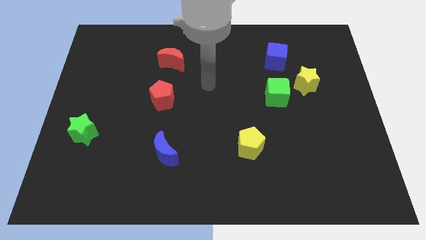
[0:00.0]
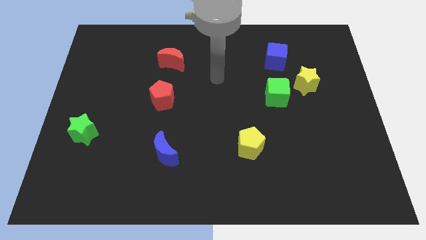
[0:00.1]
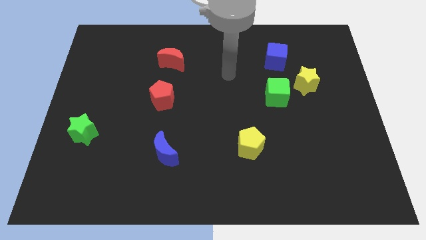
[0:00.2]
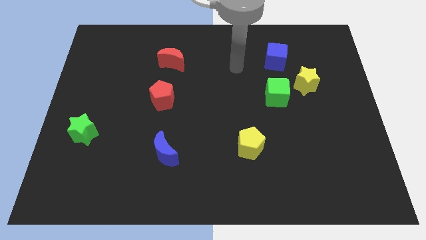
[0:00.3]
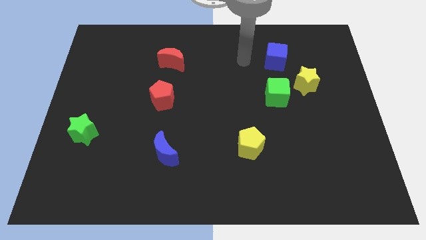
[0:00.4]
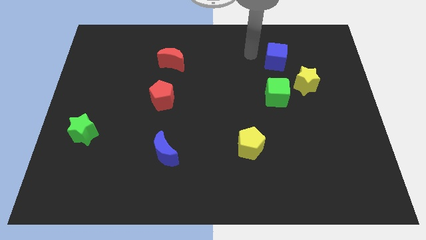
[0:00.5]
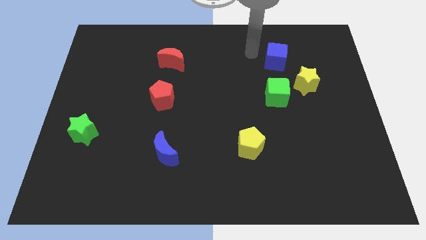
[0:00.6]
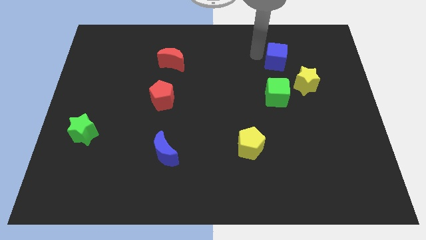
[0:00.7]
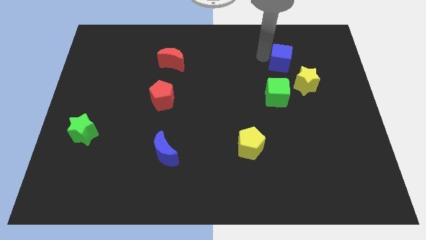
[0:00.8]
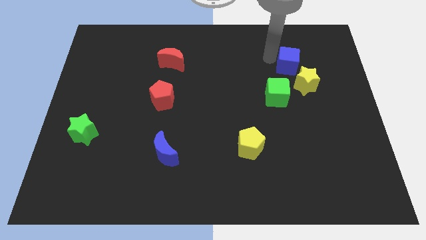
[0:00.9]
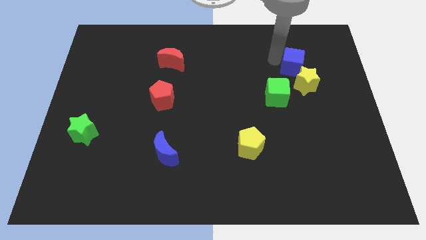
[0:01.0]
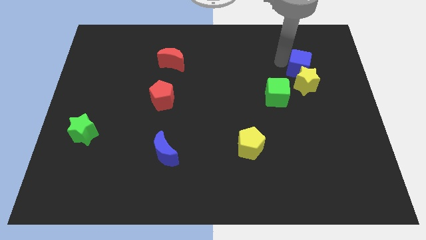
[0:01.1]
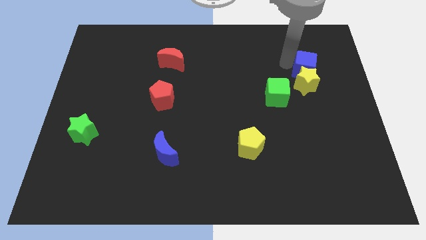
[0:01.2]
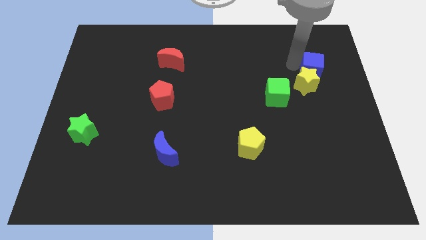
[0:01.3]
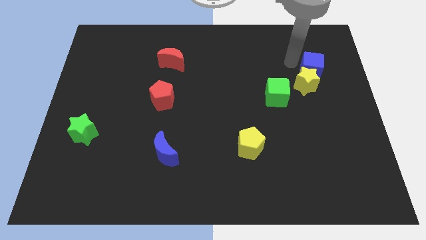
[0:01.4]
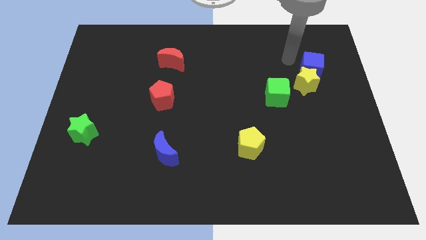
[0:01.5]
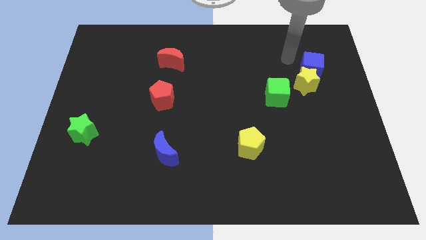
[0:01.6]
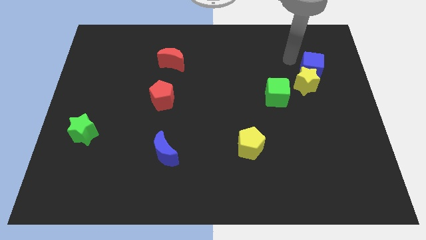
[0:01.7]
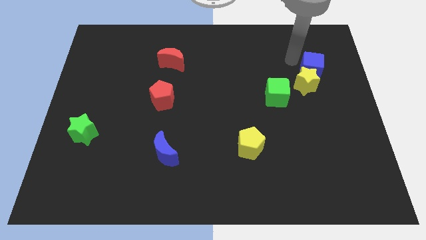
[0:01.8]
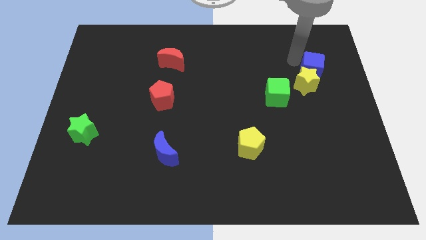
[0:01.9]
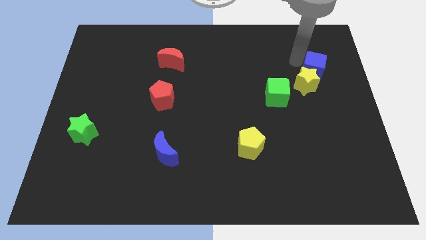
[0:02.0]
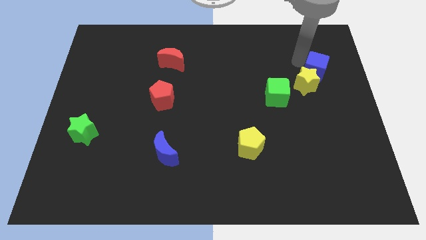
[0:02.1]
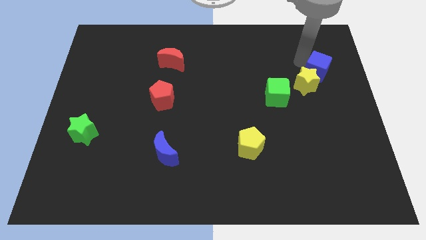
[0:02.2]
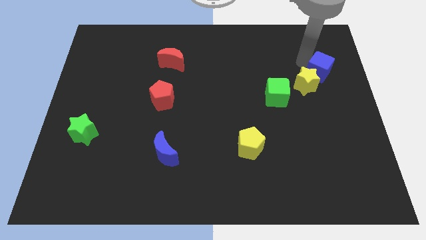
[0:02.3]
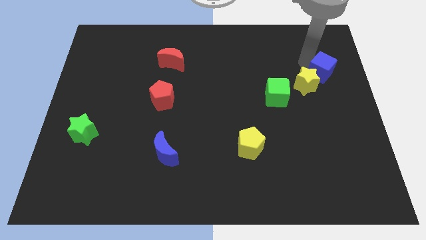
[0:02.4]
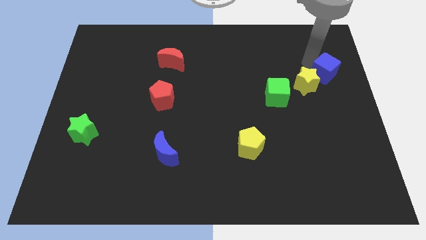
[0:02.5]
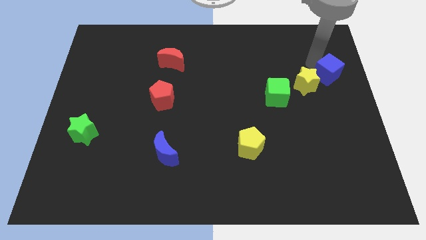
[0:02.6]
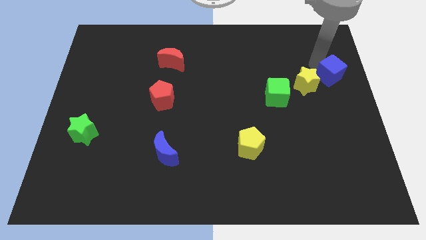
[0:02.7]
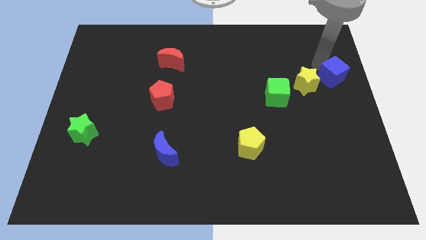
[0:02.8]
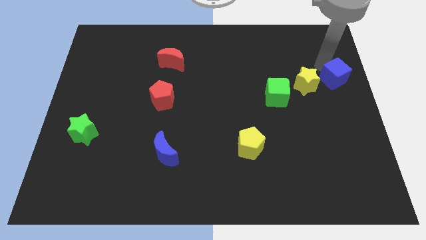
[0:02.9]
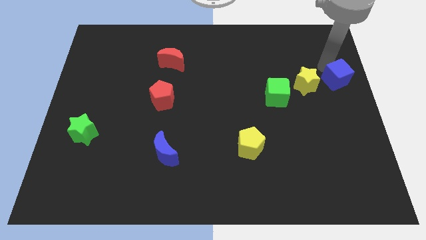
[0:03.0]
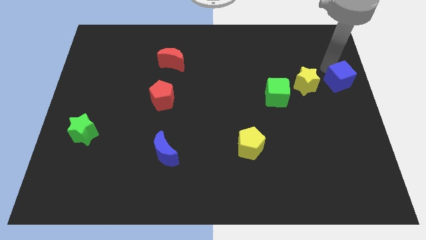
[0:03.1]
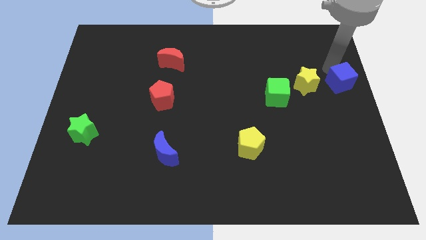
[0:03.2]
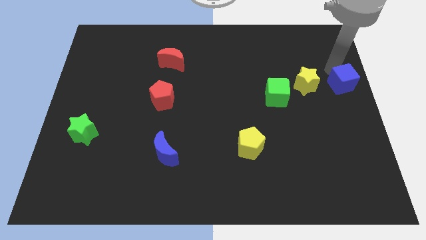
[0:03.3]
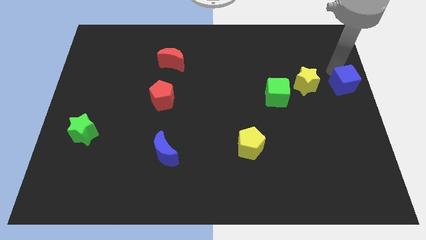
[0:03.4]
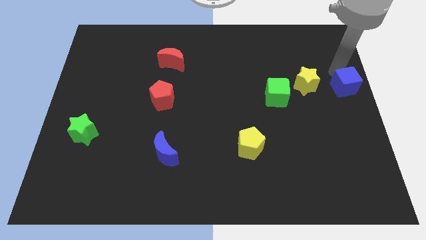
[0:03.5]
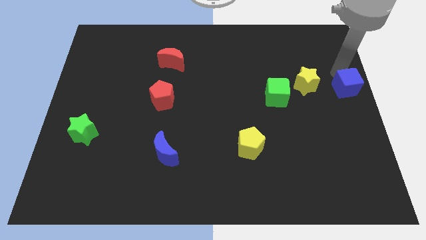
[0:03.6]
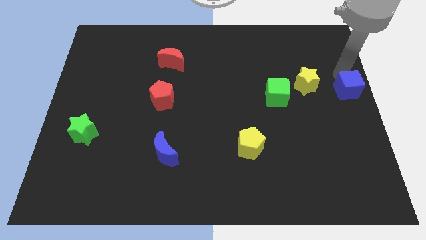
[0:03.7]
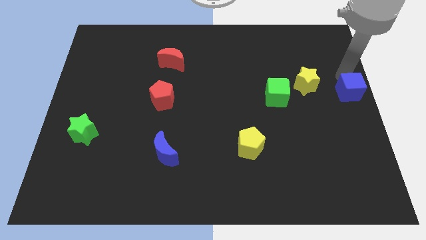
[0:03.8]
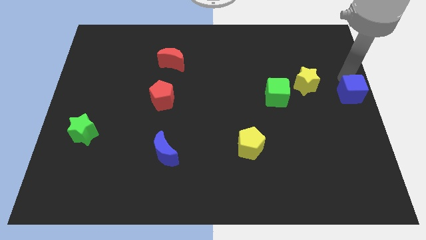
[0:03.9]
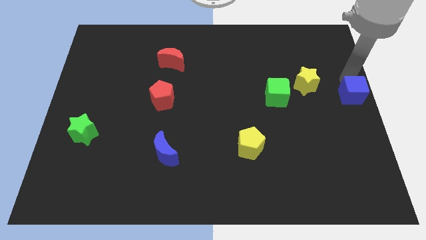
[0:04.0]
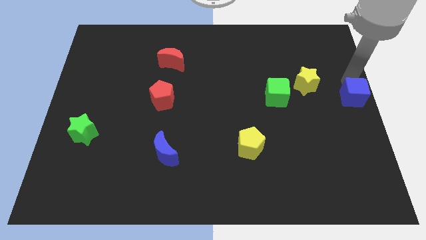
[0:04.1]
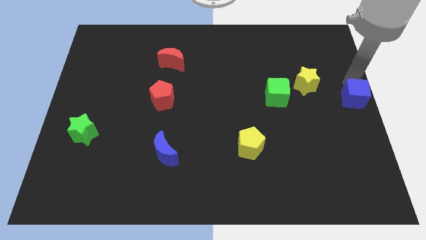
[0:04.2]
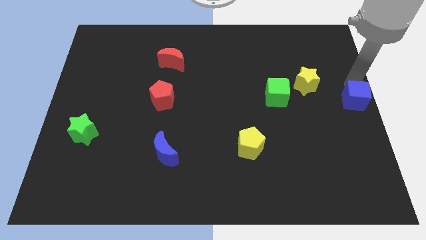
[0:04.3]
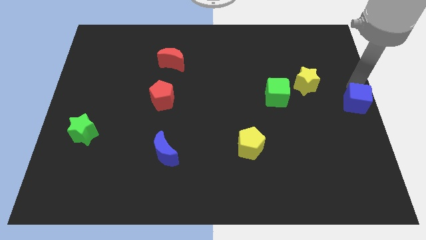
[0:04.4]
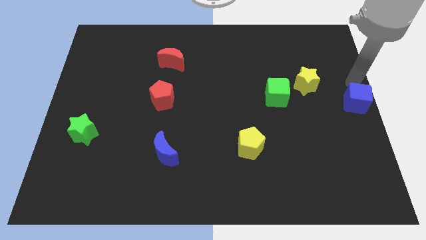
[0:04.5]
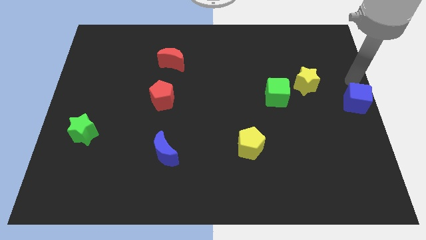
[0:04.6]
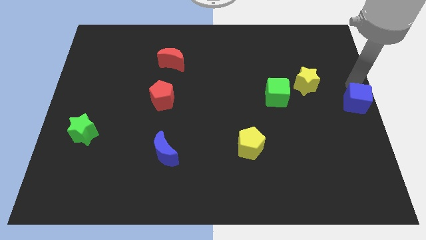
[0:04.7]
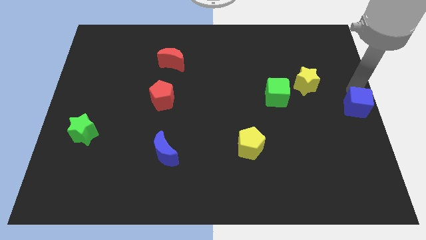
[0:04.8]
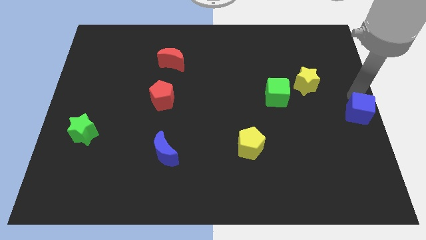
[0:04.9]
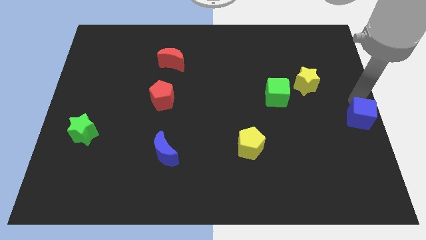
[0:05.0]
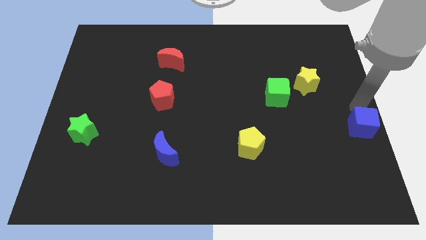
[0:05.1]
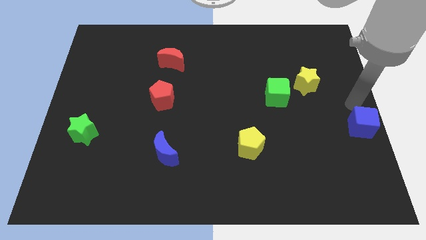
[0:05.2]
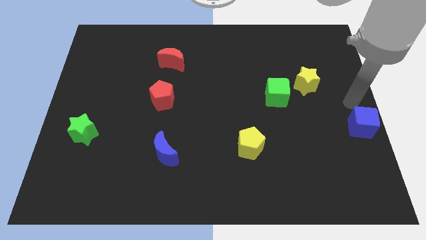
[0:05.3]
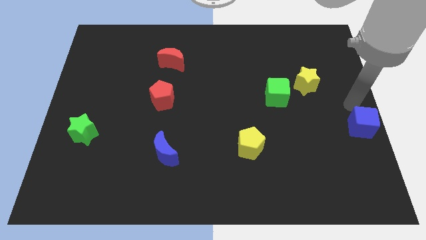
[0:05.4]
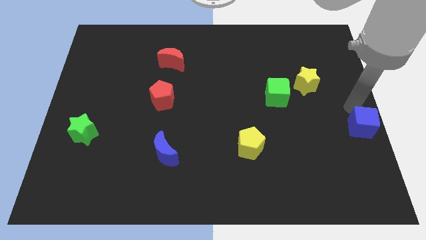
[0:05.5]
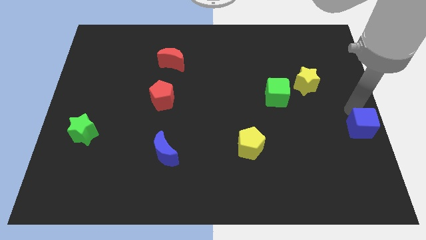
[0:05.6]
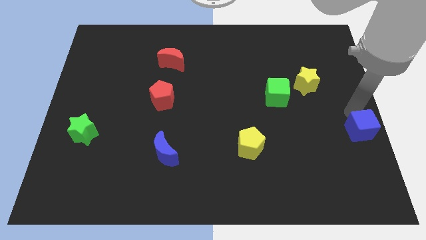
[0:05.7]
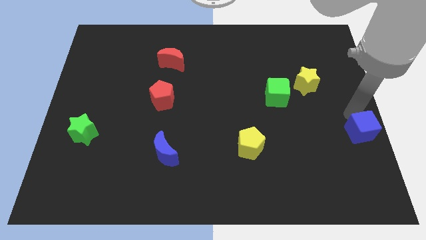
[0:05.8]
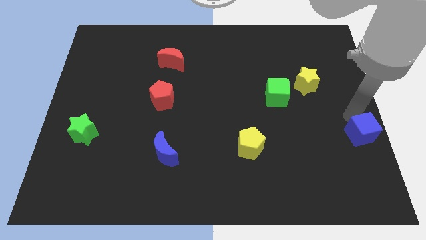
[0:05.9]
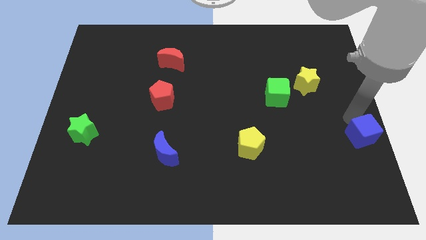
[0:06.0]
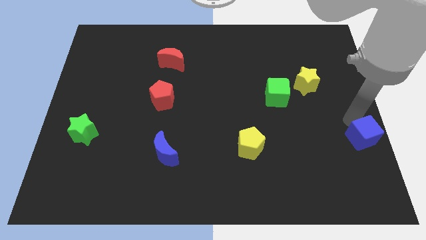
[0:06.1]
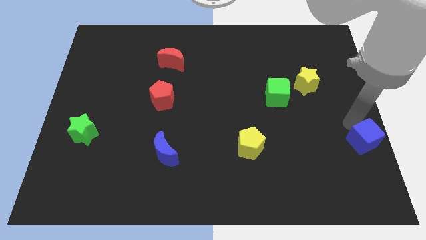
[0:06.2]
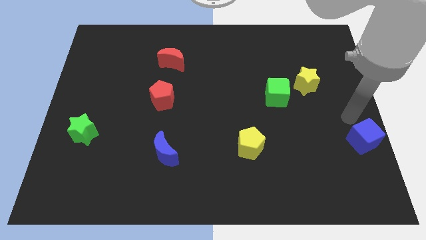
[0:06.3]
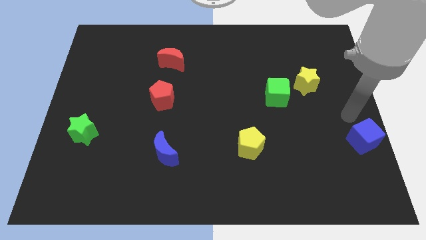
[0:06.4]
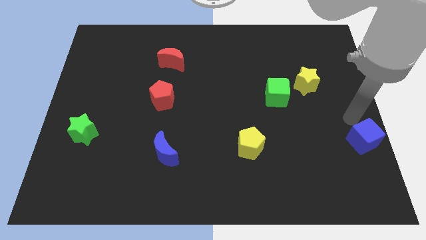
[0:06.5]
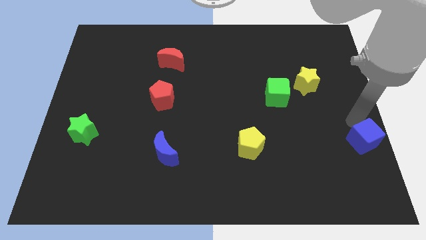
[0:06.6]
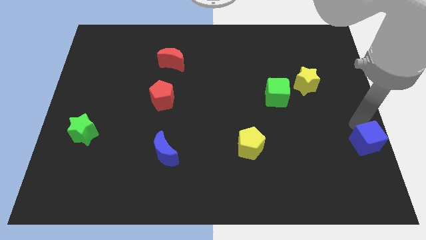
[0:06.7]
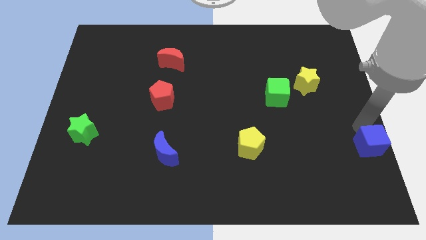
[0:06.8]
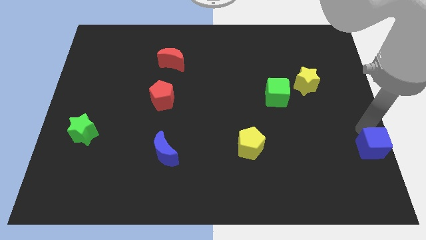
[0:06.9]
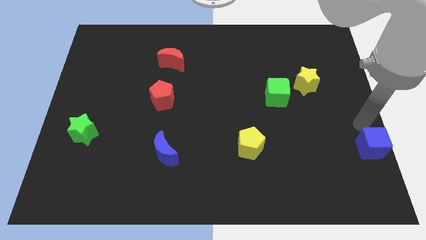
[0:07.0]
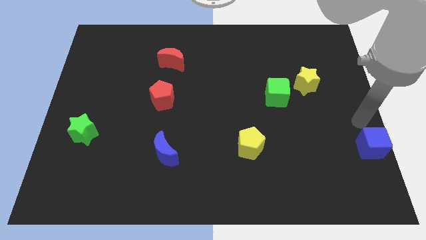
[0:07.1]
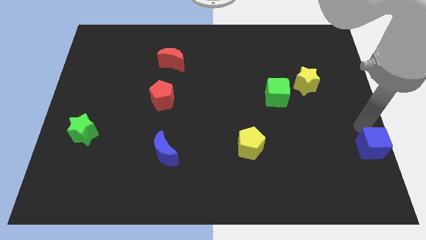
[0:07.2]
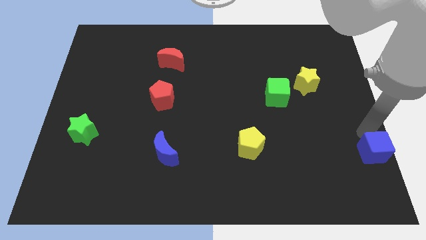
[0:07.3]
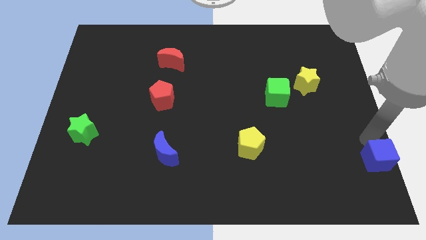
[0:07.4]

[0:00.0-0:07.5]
put the blue cube to the bottom right corner

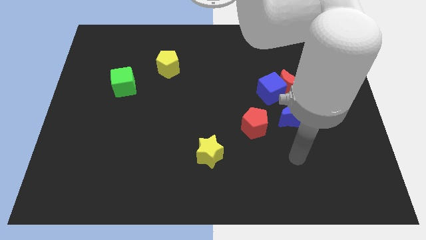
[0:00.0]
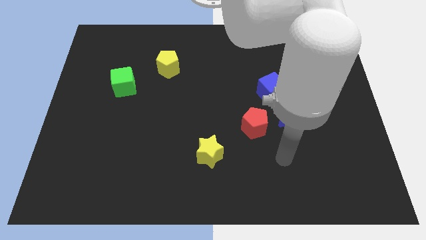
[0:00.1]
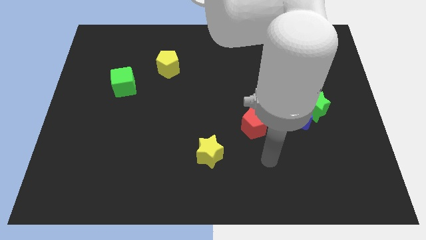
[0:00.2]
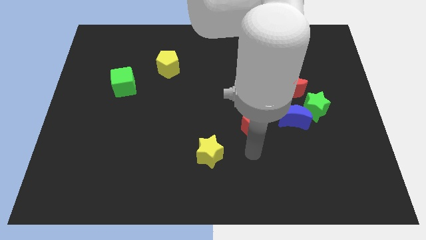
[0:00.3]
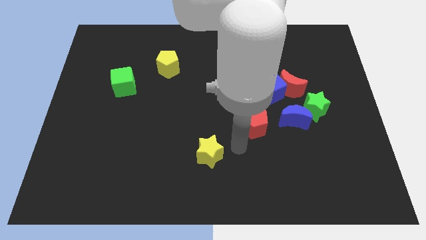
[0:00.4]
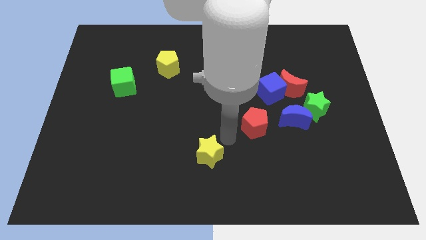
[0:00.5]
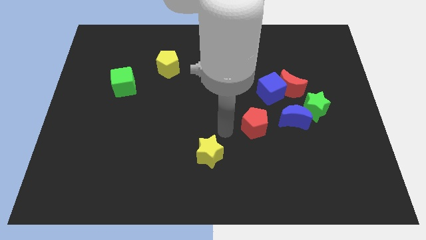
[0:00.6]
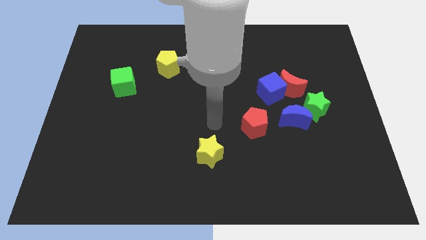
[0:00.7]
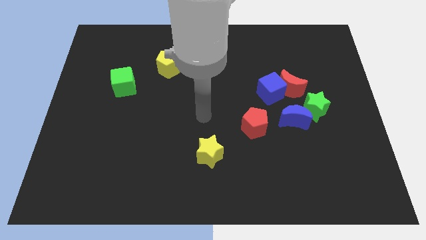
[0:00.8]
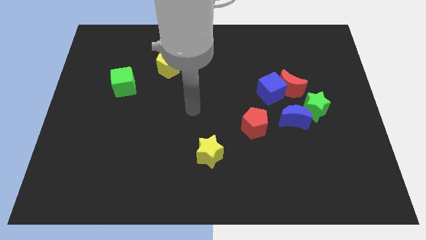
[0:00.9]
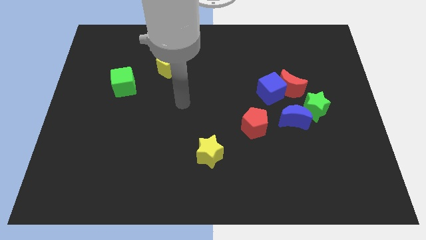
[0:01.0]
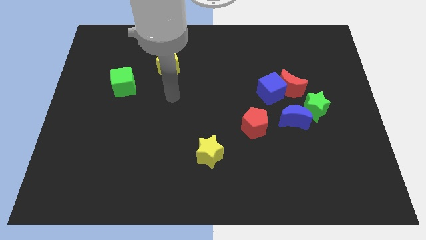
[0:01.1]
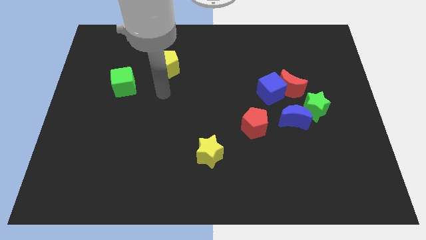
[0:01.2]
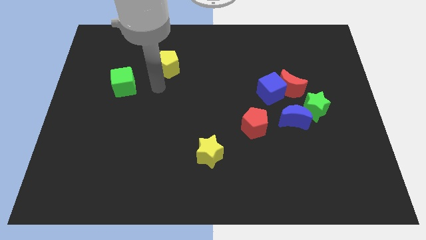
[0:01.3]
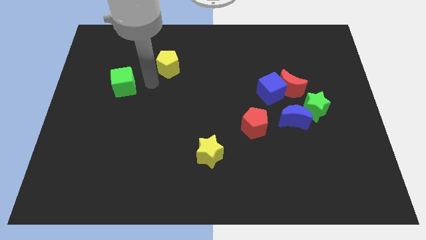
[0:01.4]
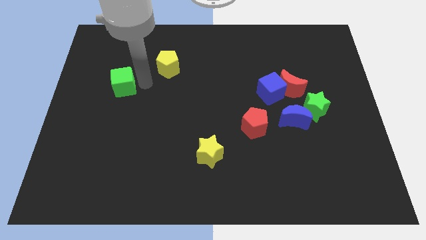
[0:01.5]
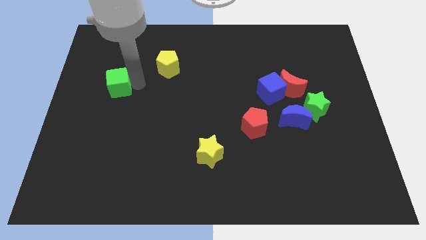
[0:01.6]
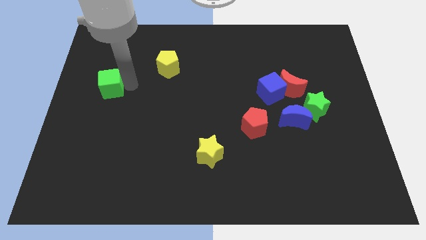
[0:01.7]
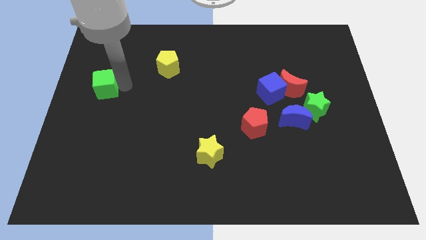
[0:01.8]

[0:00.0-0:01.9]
move the green cube to the left side of the board
